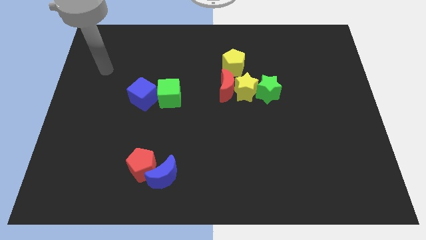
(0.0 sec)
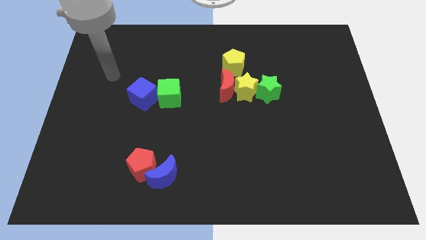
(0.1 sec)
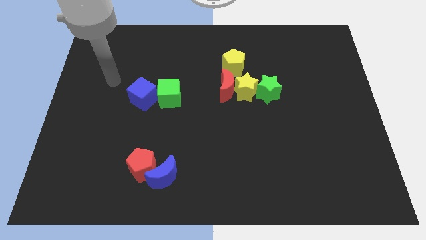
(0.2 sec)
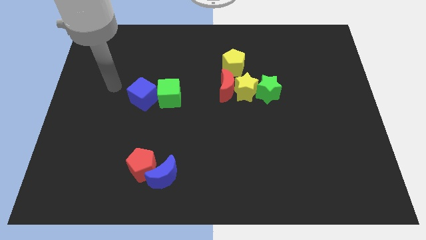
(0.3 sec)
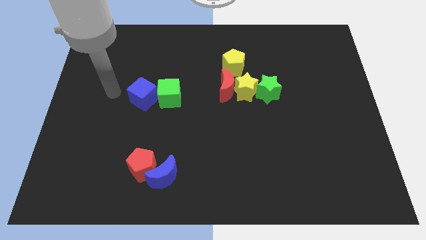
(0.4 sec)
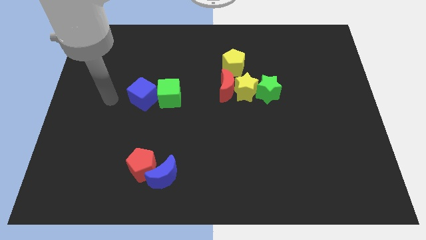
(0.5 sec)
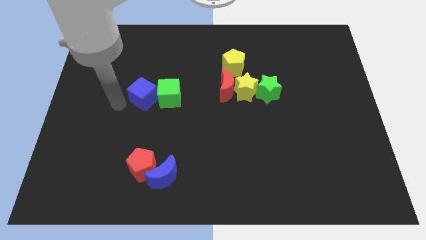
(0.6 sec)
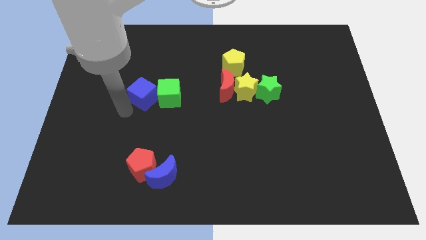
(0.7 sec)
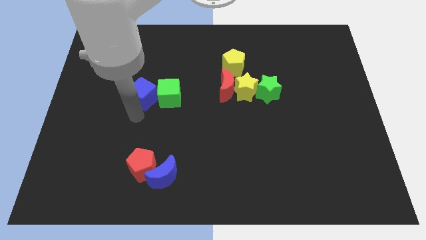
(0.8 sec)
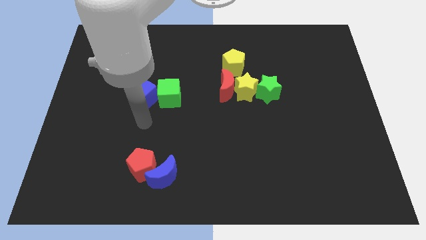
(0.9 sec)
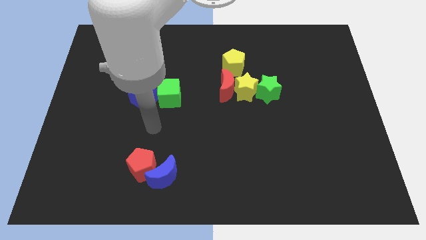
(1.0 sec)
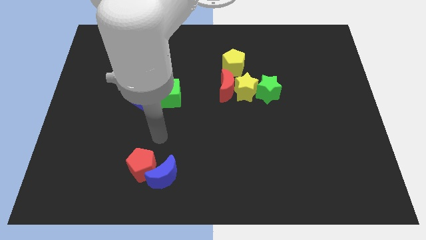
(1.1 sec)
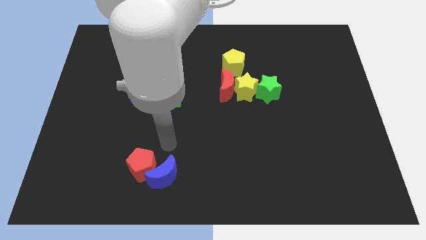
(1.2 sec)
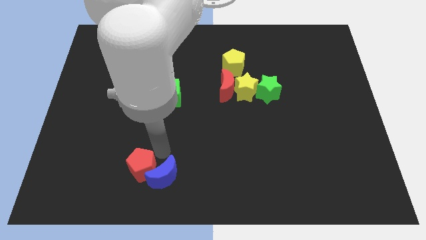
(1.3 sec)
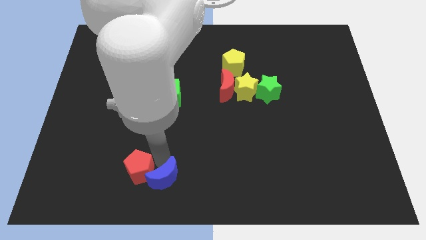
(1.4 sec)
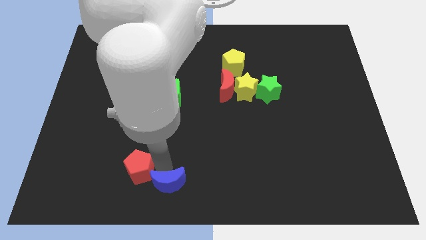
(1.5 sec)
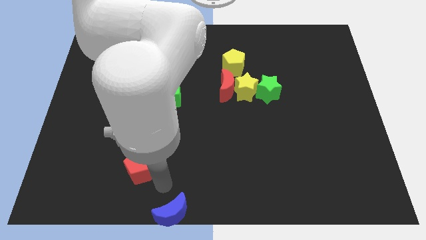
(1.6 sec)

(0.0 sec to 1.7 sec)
pull the red pentagon apart from the blue moon

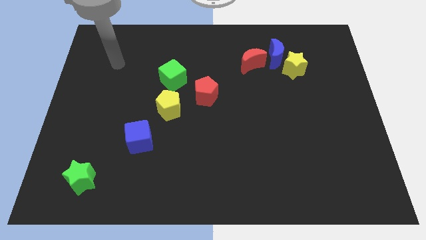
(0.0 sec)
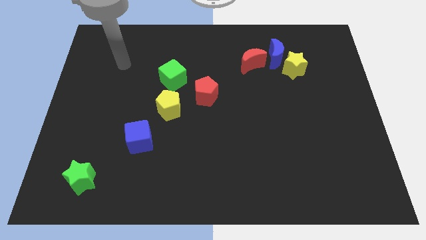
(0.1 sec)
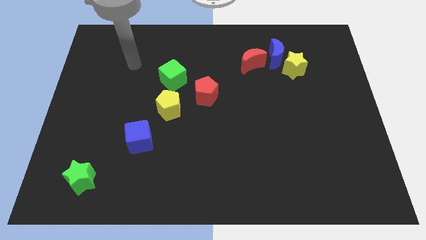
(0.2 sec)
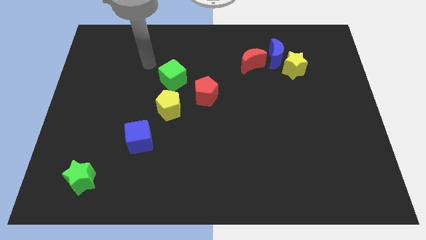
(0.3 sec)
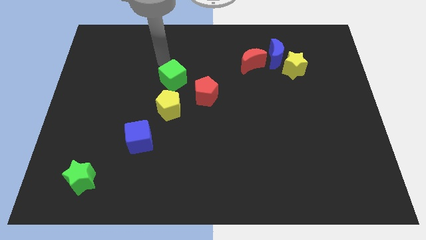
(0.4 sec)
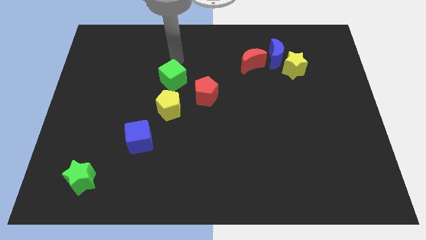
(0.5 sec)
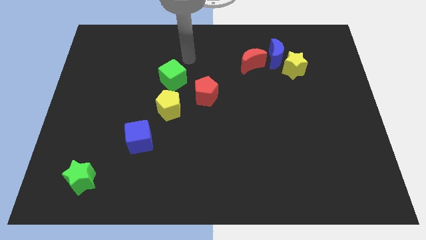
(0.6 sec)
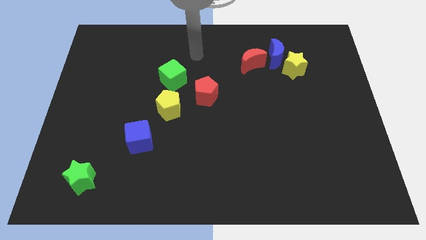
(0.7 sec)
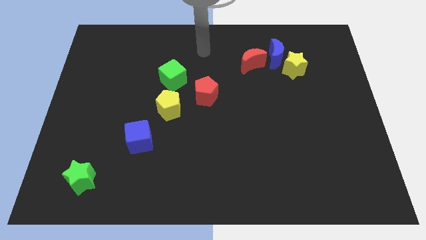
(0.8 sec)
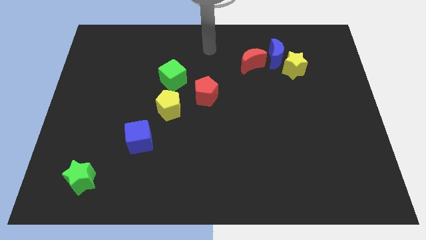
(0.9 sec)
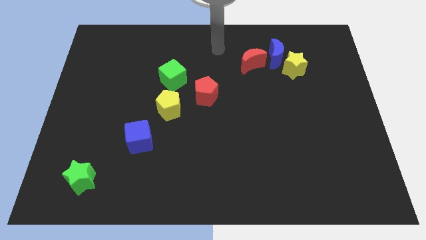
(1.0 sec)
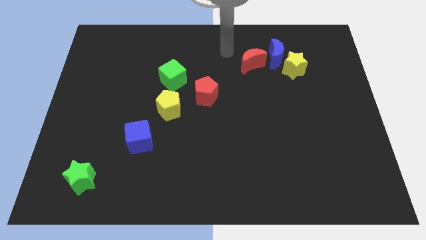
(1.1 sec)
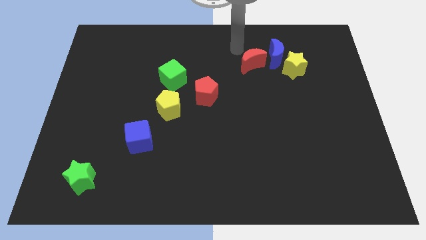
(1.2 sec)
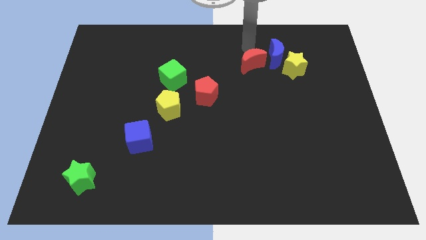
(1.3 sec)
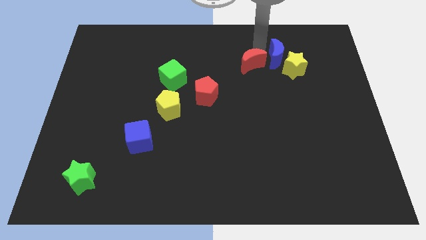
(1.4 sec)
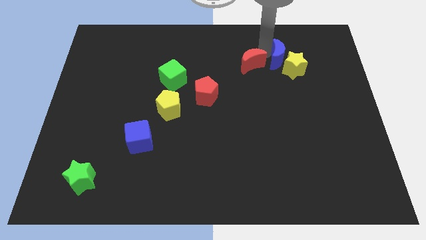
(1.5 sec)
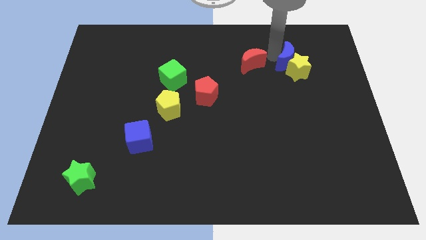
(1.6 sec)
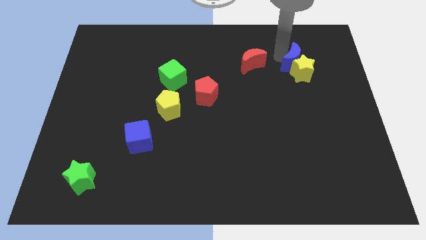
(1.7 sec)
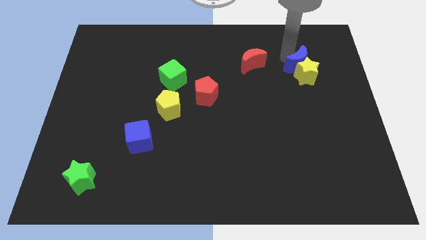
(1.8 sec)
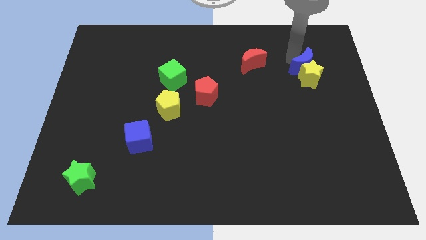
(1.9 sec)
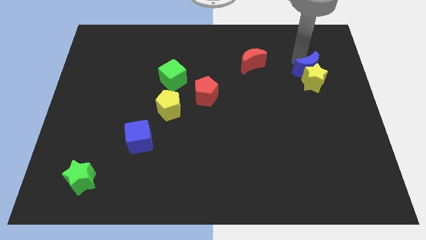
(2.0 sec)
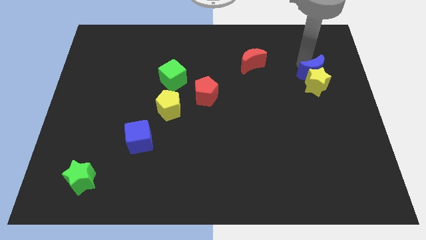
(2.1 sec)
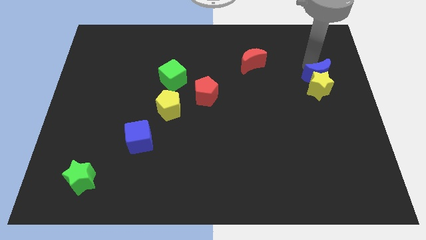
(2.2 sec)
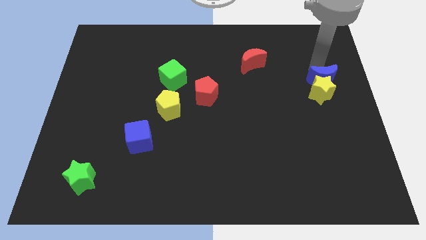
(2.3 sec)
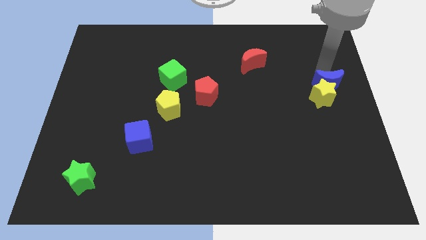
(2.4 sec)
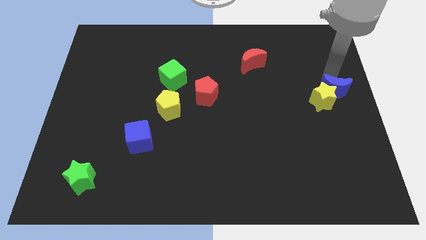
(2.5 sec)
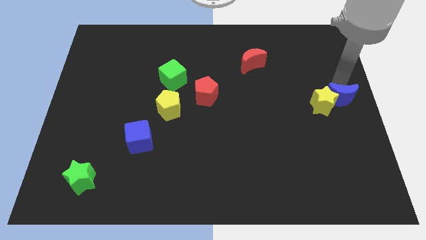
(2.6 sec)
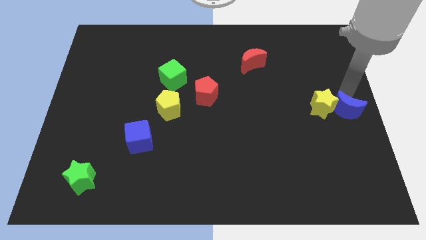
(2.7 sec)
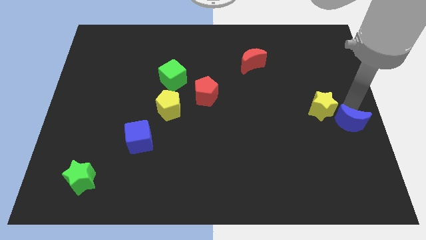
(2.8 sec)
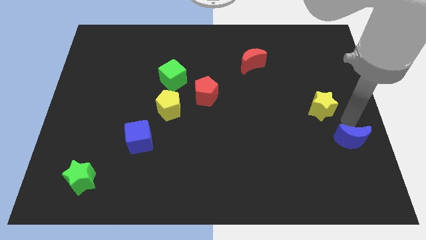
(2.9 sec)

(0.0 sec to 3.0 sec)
pull the yellow star apart from the blue moon

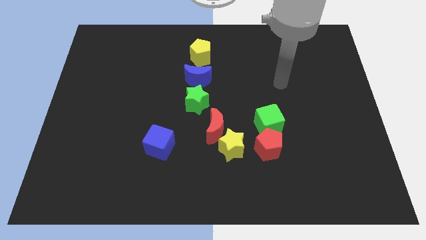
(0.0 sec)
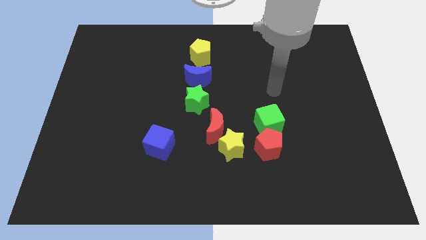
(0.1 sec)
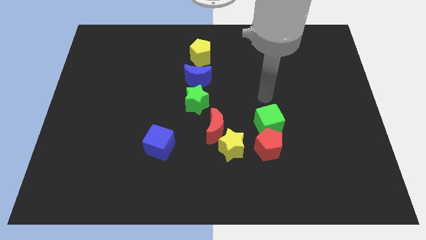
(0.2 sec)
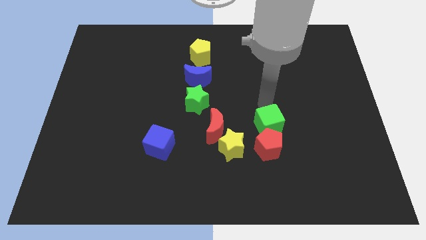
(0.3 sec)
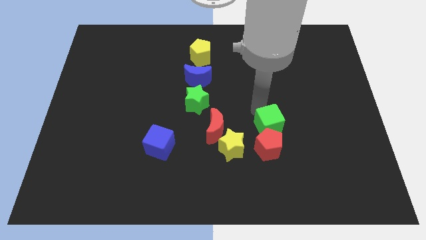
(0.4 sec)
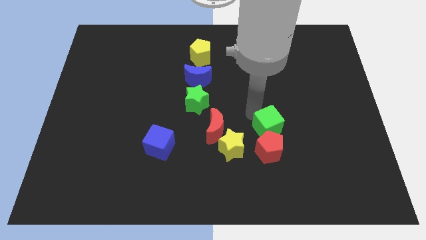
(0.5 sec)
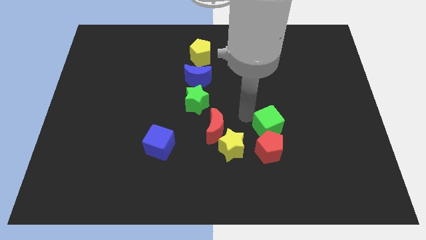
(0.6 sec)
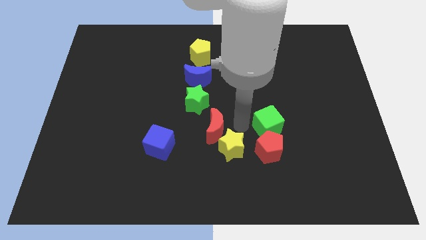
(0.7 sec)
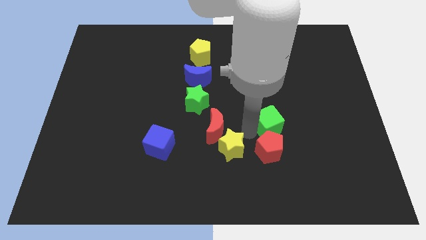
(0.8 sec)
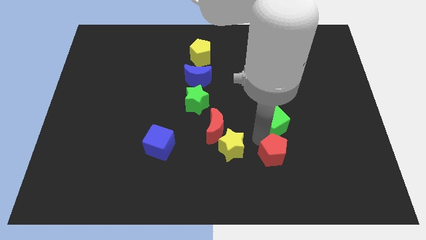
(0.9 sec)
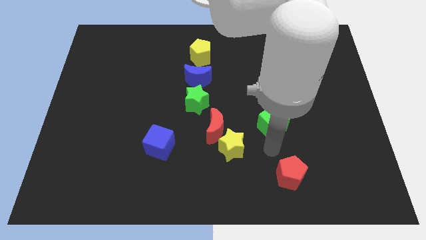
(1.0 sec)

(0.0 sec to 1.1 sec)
move the green cube away from the red pentagon

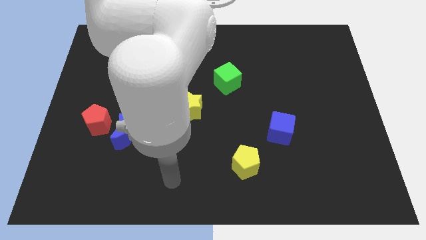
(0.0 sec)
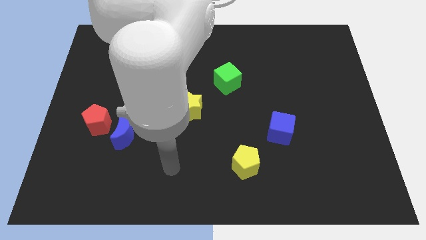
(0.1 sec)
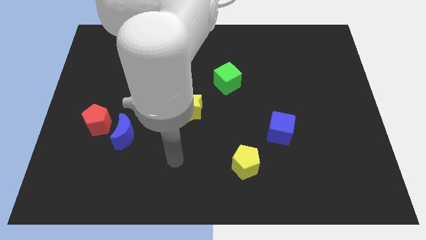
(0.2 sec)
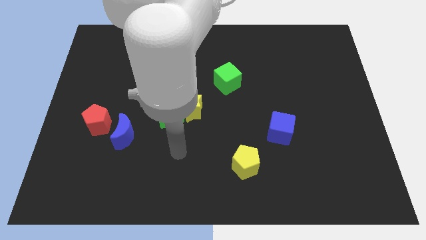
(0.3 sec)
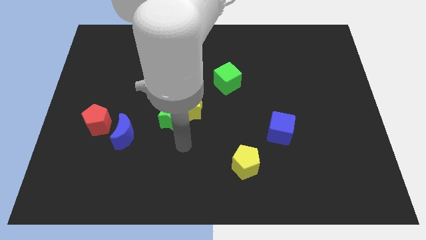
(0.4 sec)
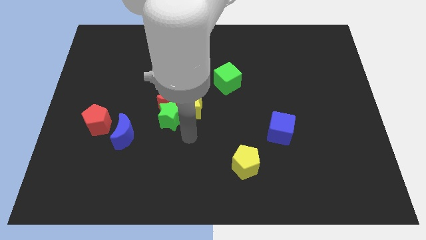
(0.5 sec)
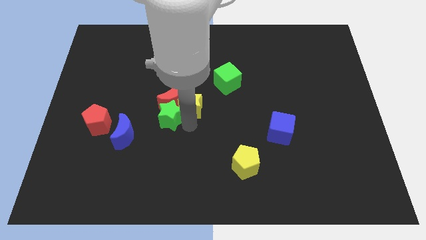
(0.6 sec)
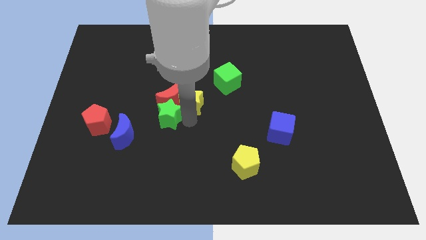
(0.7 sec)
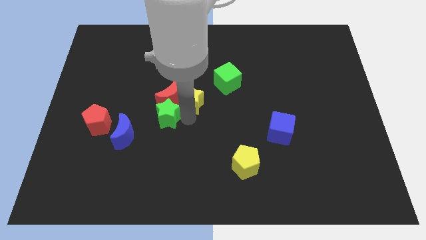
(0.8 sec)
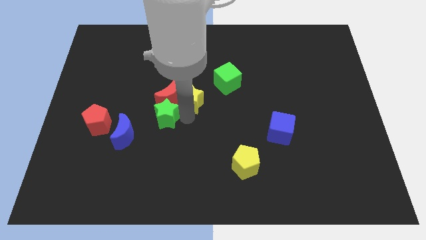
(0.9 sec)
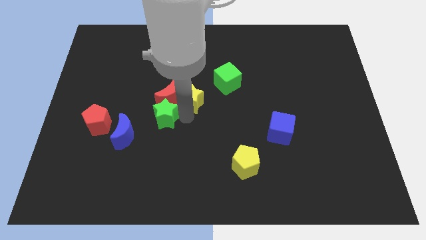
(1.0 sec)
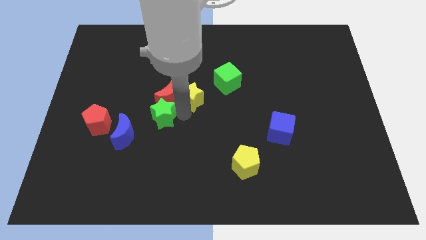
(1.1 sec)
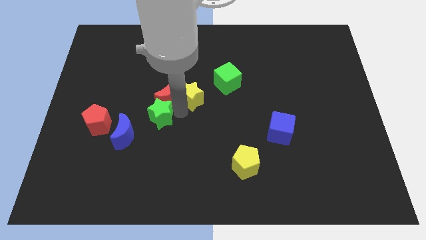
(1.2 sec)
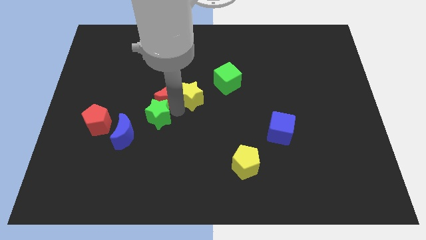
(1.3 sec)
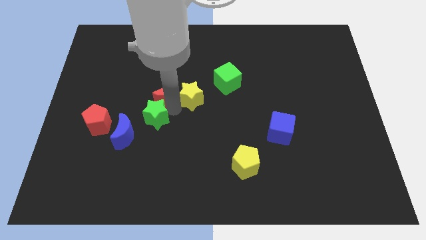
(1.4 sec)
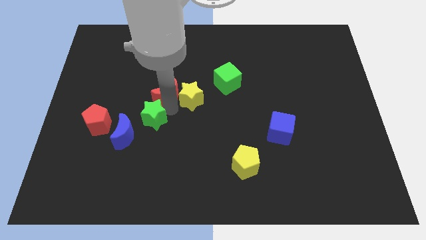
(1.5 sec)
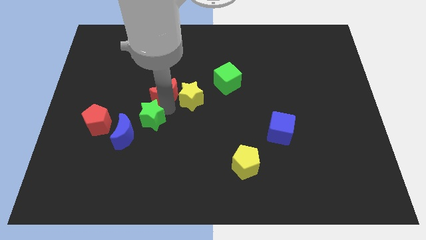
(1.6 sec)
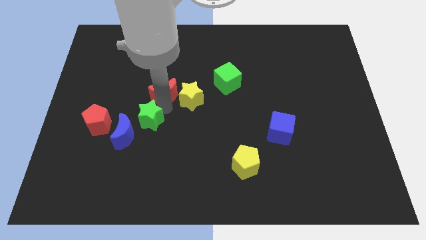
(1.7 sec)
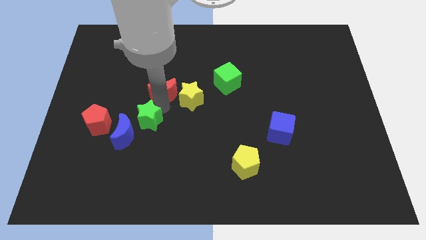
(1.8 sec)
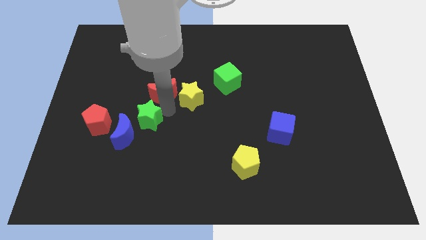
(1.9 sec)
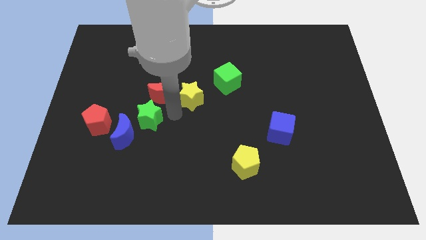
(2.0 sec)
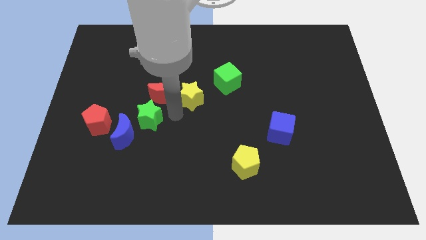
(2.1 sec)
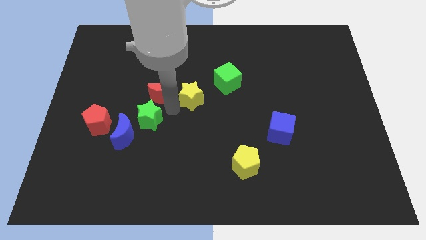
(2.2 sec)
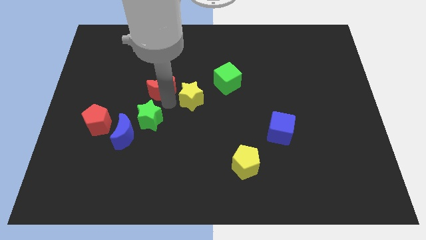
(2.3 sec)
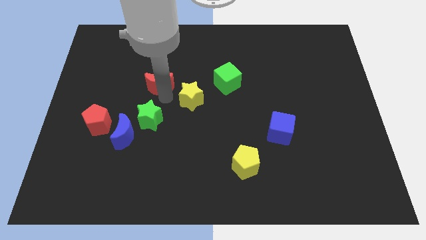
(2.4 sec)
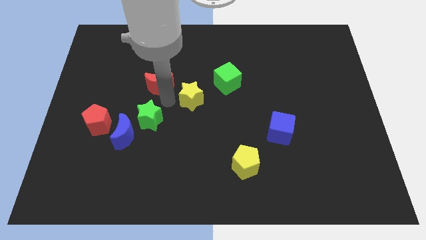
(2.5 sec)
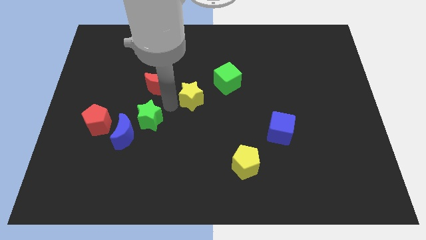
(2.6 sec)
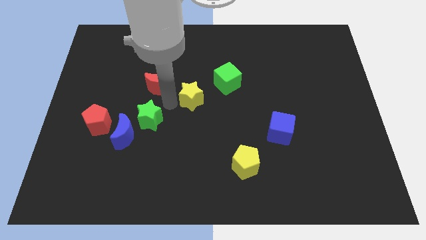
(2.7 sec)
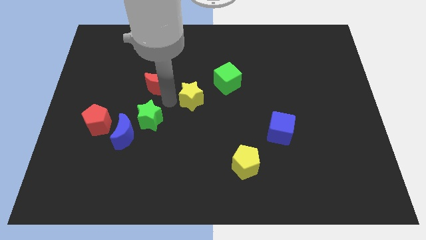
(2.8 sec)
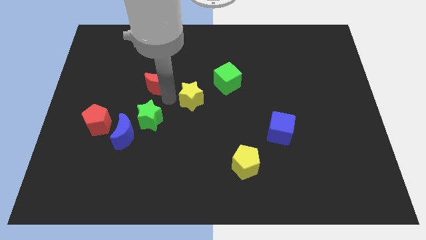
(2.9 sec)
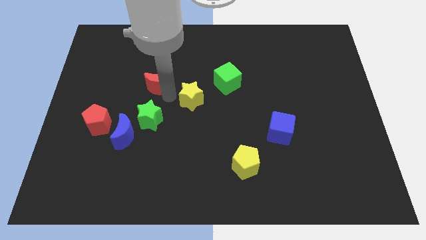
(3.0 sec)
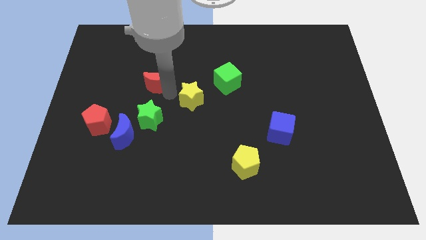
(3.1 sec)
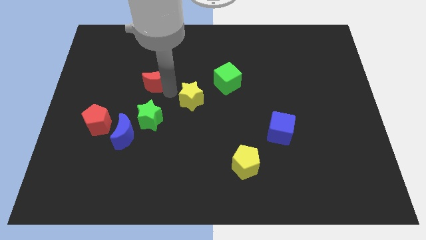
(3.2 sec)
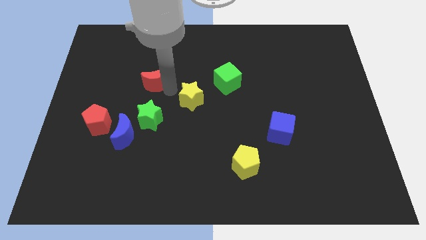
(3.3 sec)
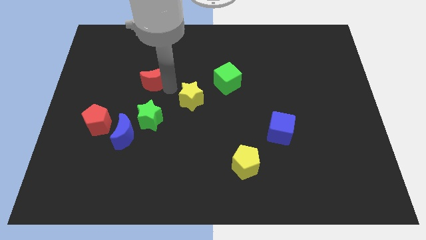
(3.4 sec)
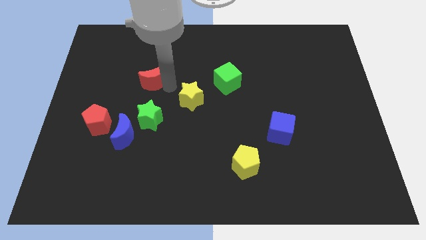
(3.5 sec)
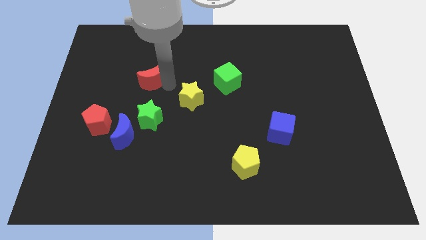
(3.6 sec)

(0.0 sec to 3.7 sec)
separate the red moon from the yellow star and green star
